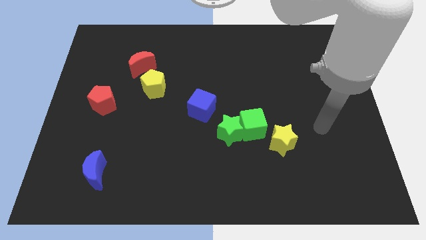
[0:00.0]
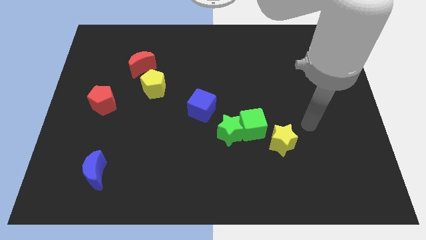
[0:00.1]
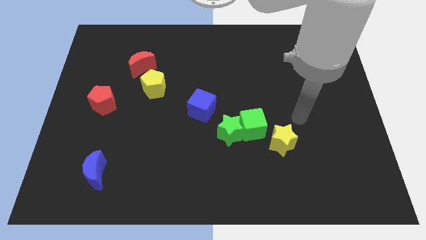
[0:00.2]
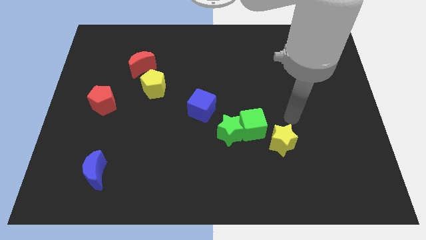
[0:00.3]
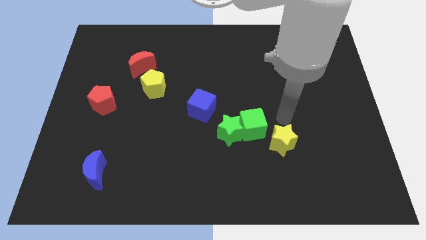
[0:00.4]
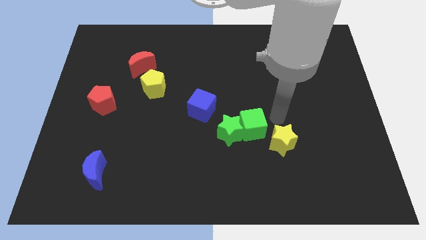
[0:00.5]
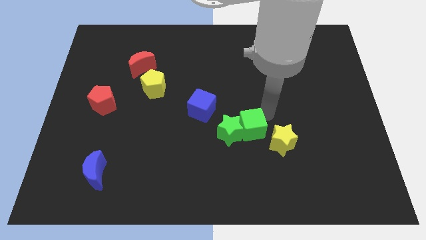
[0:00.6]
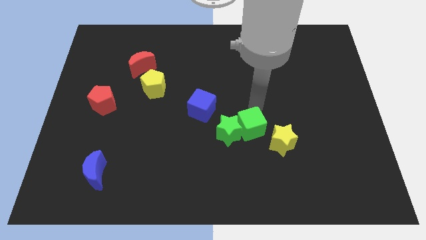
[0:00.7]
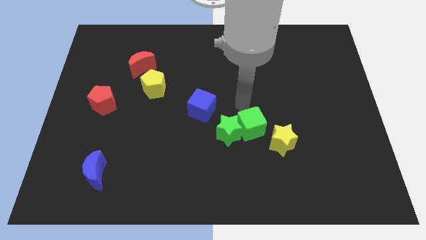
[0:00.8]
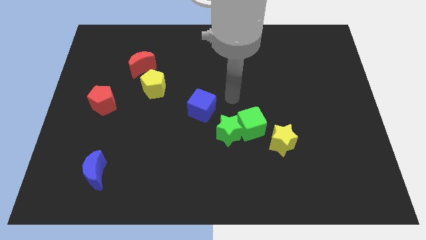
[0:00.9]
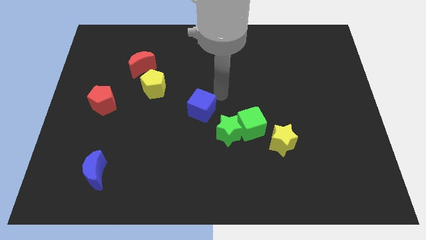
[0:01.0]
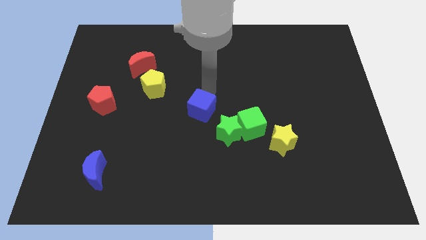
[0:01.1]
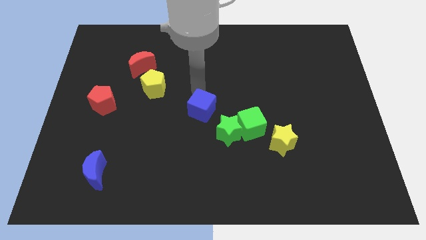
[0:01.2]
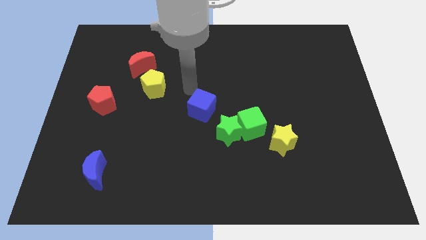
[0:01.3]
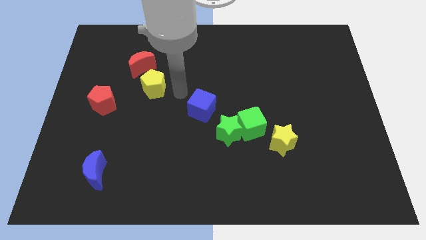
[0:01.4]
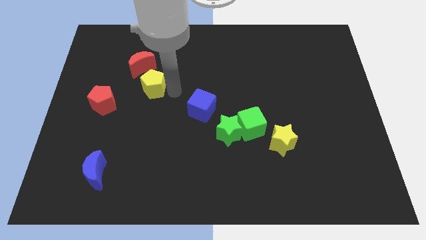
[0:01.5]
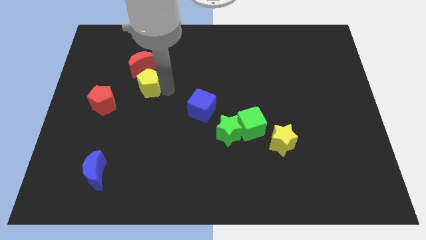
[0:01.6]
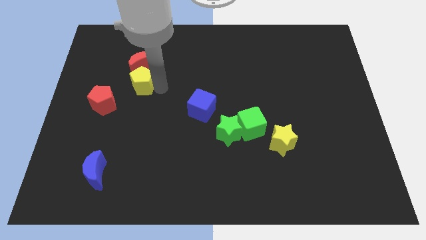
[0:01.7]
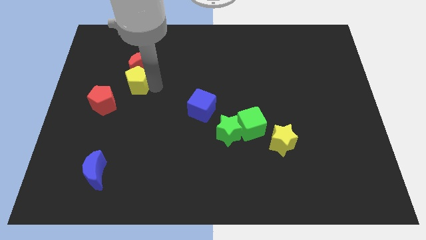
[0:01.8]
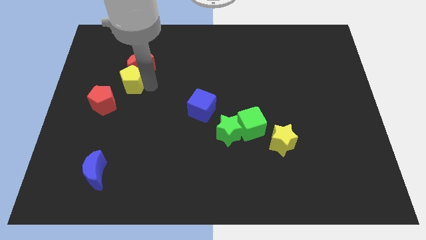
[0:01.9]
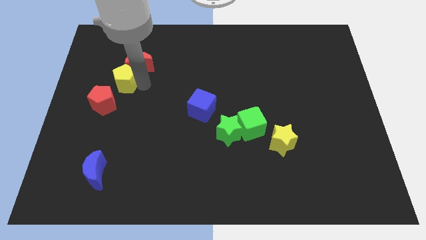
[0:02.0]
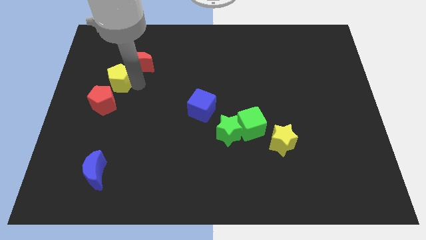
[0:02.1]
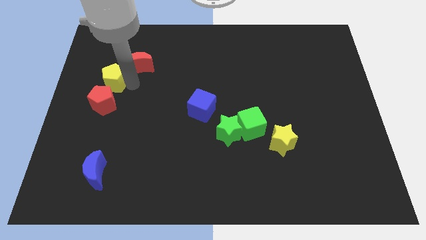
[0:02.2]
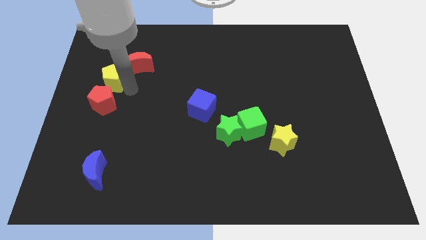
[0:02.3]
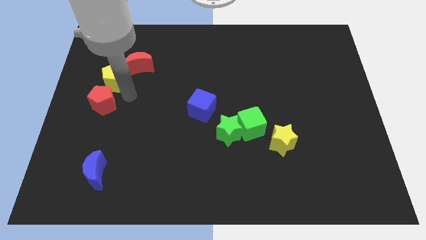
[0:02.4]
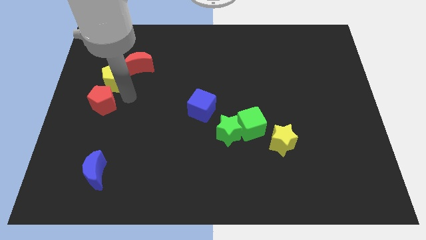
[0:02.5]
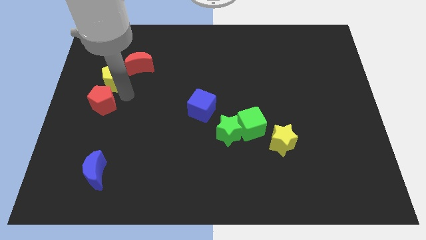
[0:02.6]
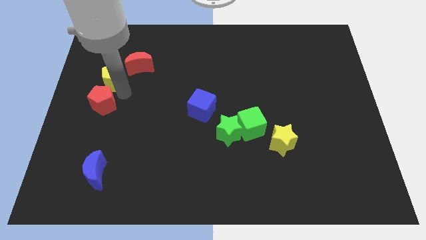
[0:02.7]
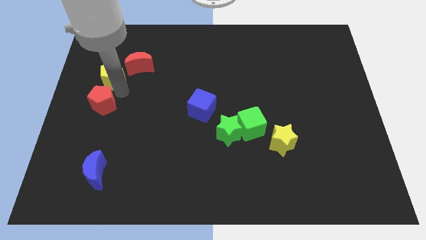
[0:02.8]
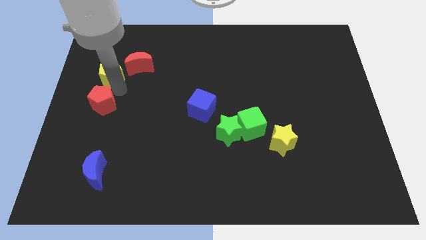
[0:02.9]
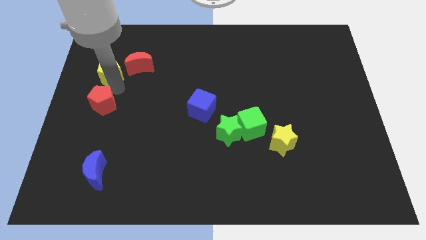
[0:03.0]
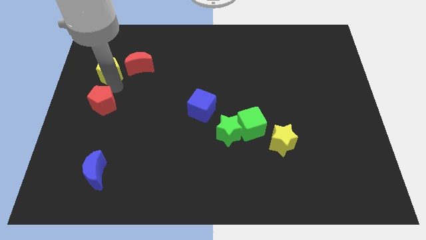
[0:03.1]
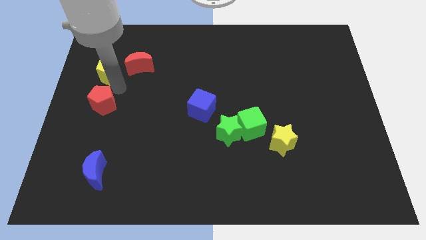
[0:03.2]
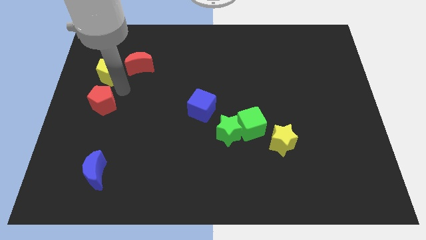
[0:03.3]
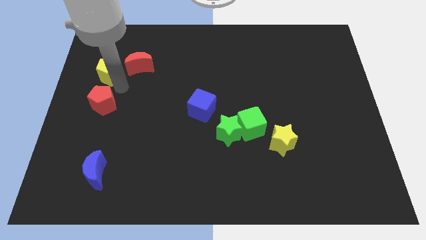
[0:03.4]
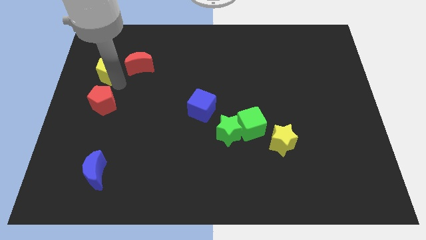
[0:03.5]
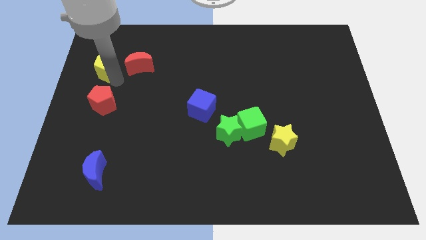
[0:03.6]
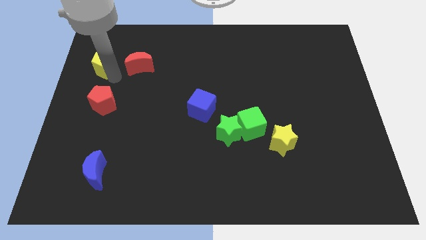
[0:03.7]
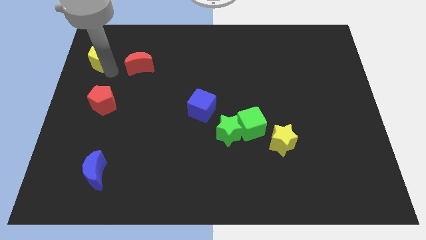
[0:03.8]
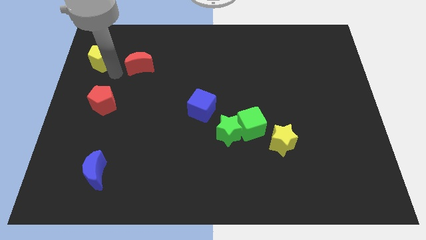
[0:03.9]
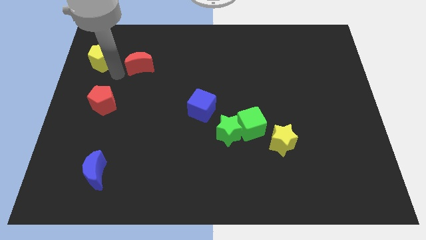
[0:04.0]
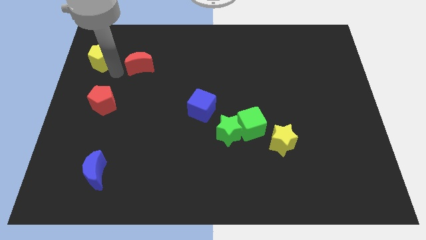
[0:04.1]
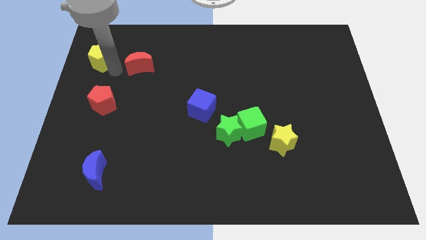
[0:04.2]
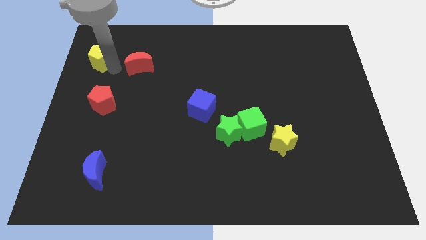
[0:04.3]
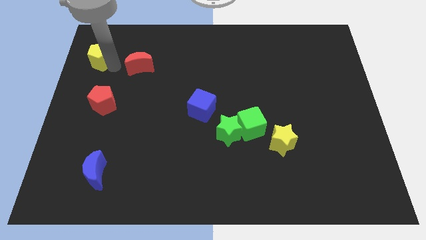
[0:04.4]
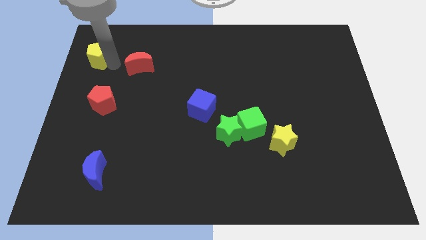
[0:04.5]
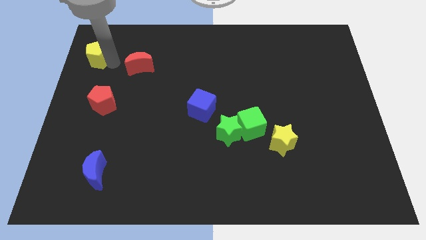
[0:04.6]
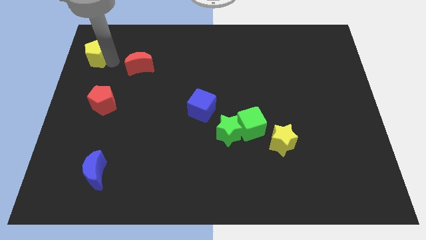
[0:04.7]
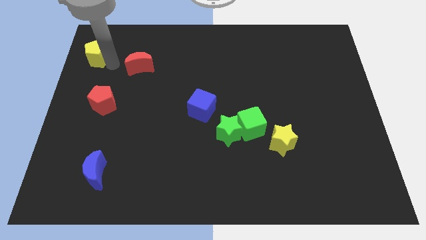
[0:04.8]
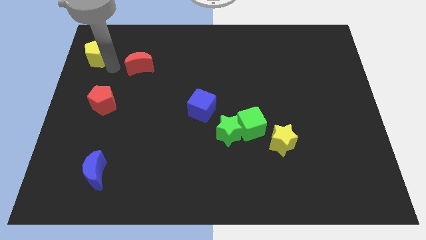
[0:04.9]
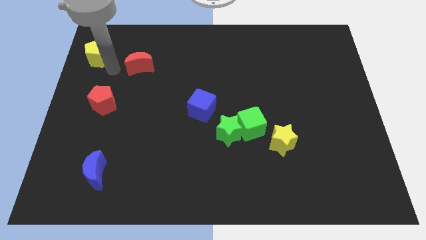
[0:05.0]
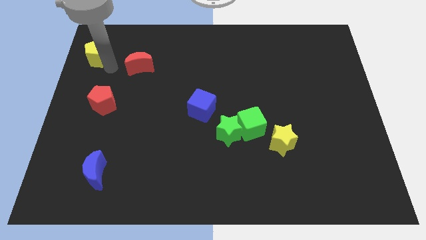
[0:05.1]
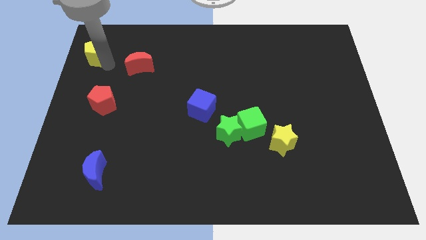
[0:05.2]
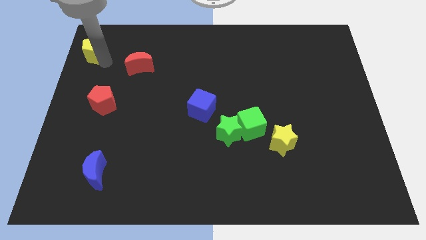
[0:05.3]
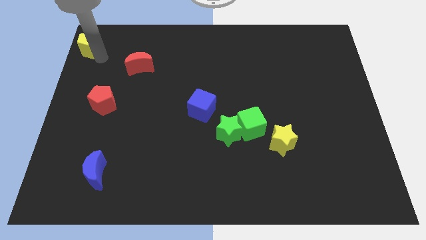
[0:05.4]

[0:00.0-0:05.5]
slide the yellow pentagon to the top left
